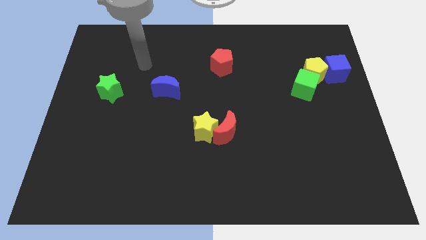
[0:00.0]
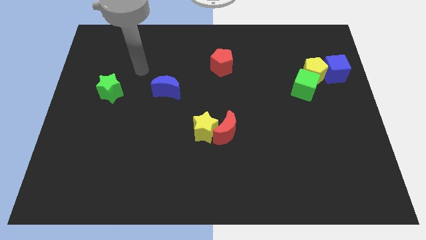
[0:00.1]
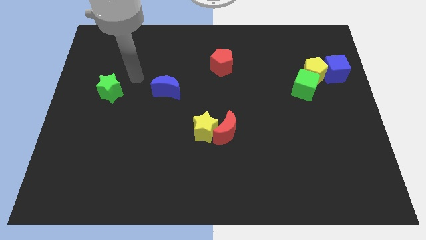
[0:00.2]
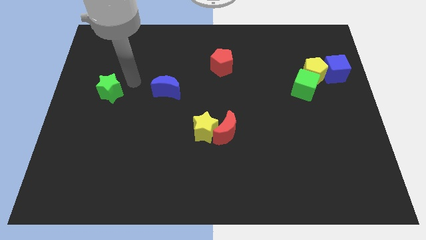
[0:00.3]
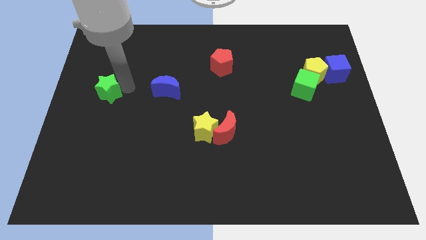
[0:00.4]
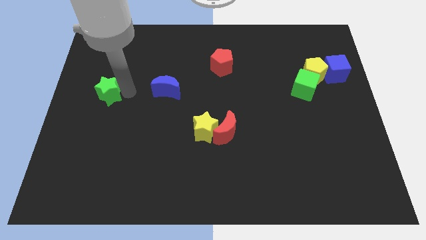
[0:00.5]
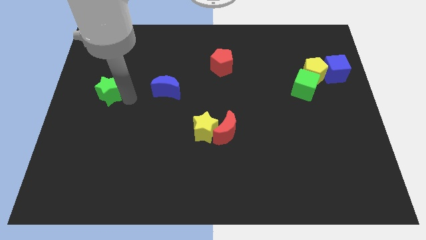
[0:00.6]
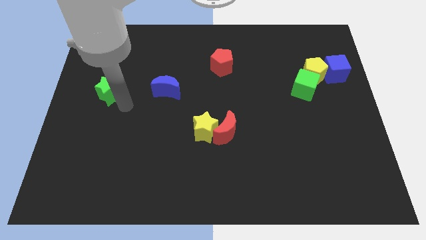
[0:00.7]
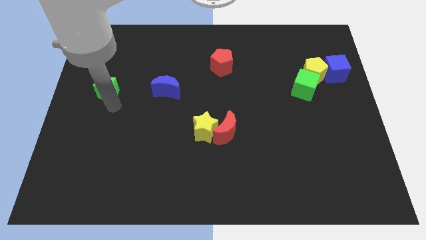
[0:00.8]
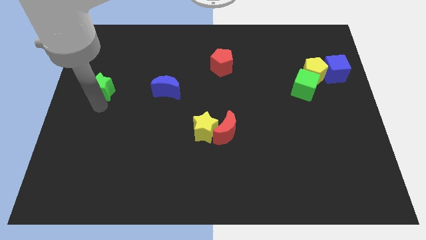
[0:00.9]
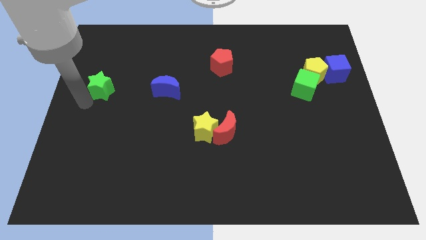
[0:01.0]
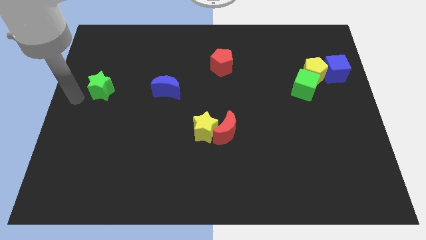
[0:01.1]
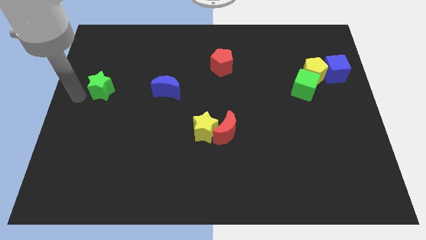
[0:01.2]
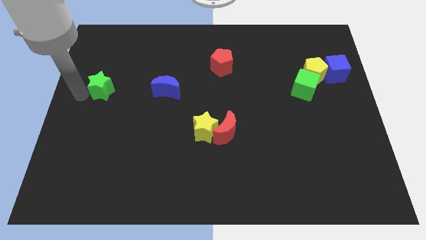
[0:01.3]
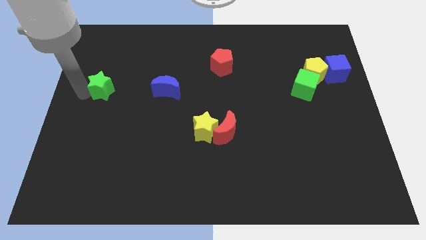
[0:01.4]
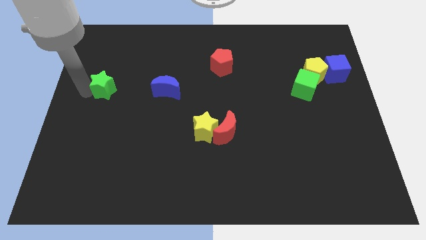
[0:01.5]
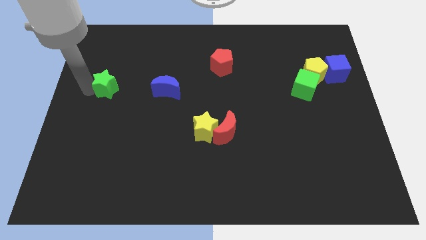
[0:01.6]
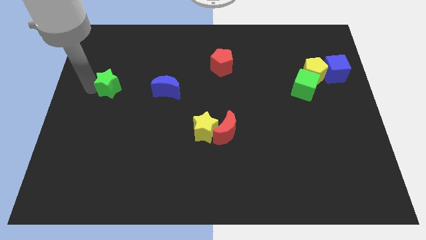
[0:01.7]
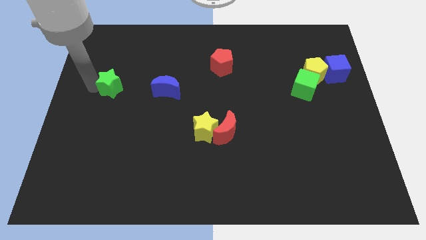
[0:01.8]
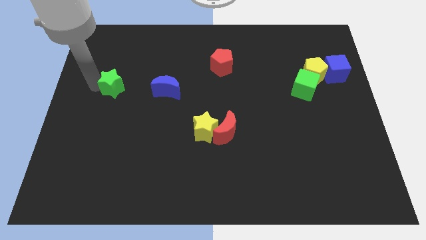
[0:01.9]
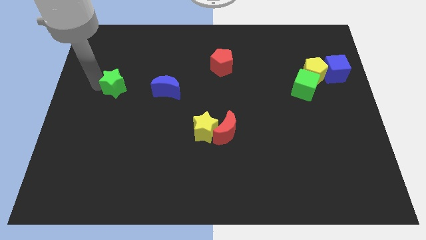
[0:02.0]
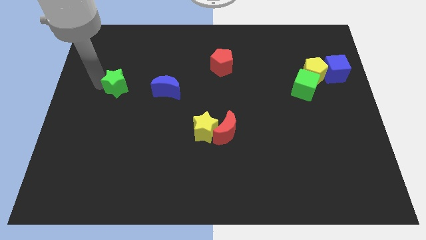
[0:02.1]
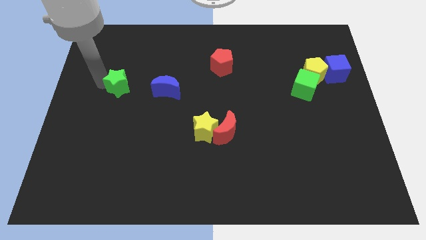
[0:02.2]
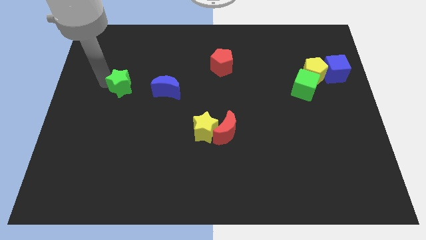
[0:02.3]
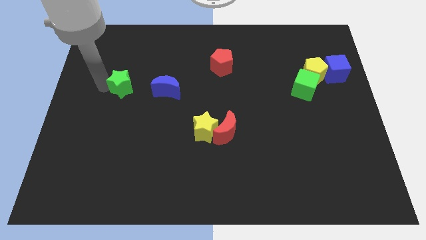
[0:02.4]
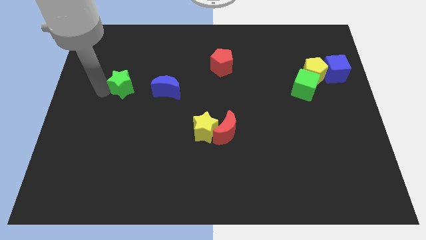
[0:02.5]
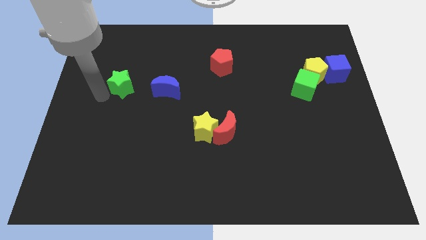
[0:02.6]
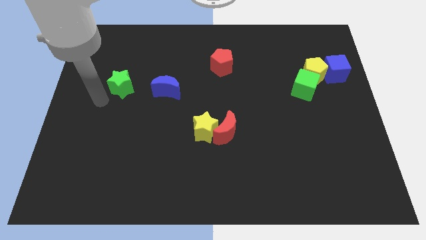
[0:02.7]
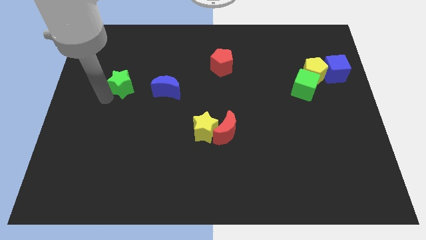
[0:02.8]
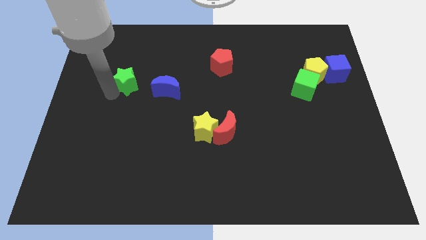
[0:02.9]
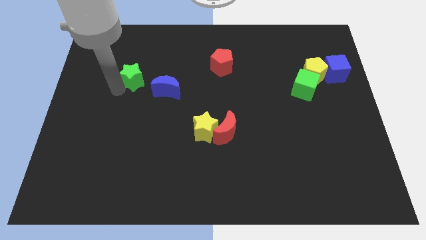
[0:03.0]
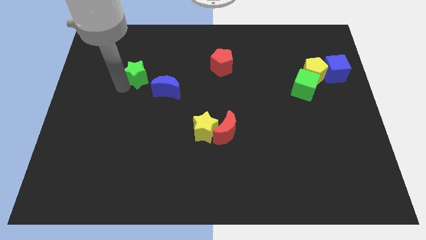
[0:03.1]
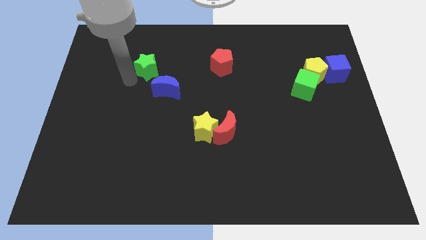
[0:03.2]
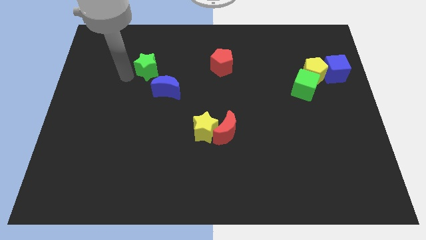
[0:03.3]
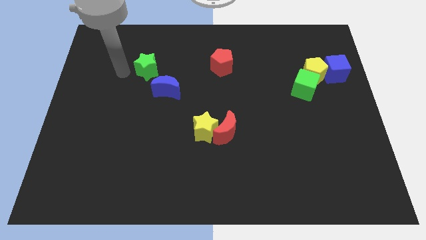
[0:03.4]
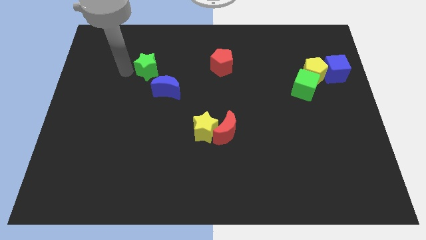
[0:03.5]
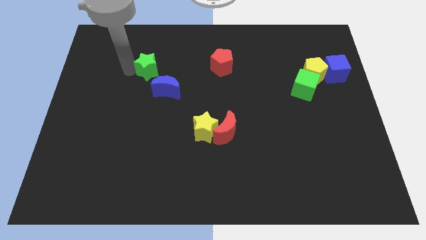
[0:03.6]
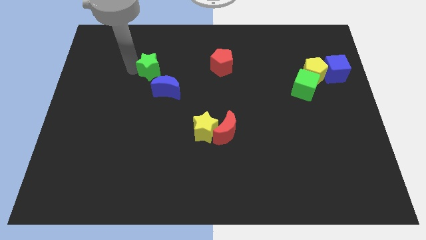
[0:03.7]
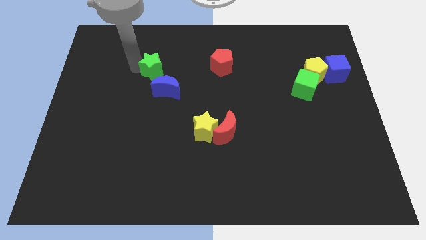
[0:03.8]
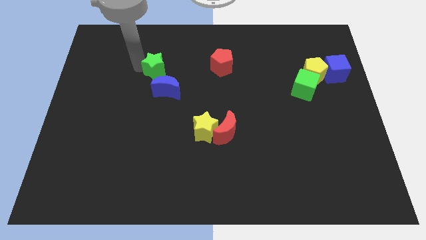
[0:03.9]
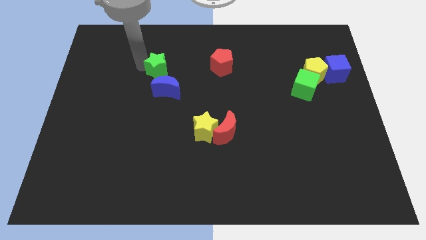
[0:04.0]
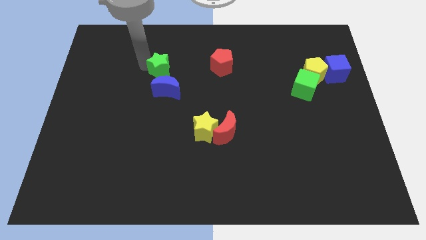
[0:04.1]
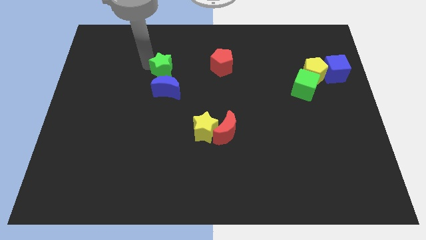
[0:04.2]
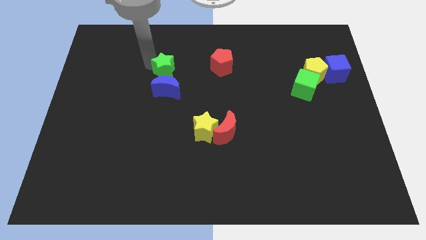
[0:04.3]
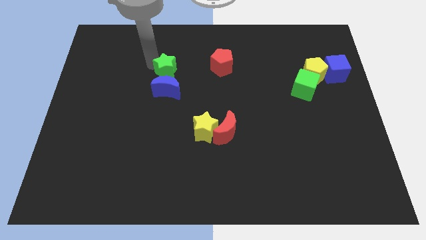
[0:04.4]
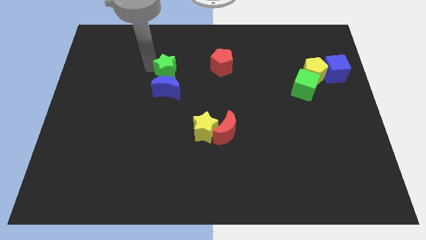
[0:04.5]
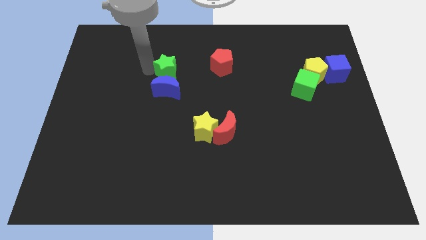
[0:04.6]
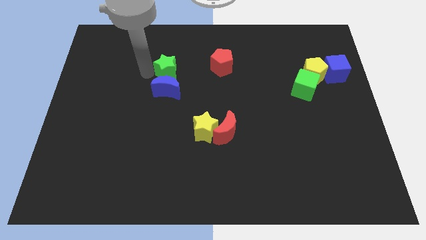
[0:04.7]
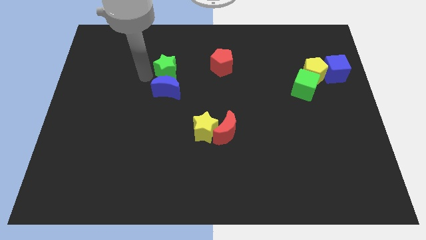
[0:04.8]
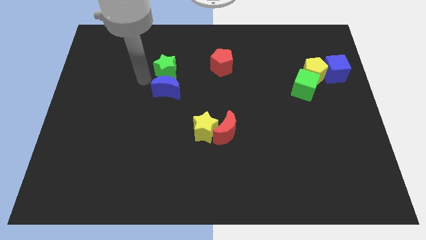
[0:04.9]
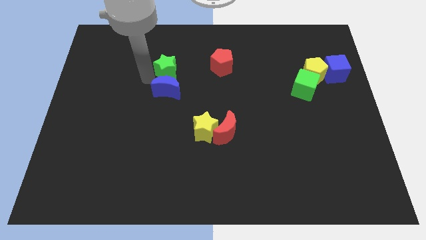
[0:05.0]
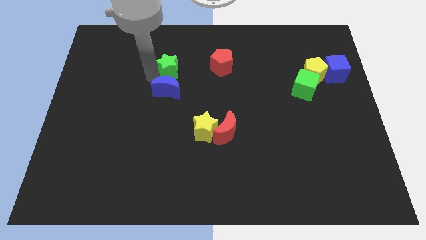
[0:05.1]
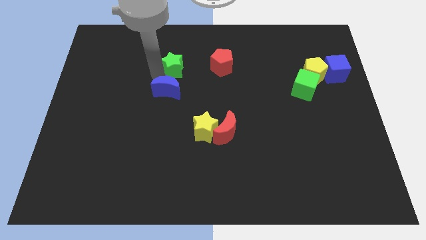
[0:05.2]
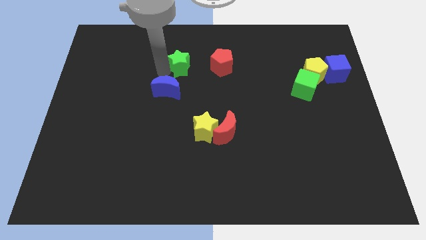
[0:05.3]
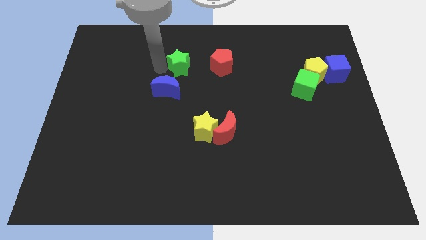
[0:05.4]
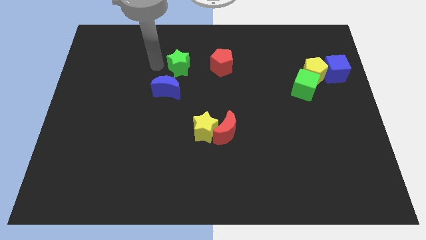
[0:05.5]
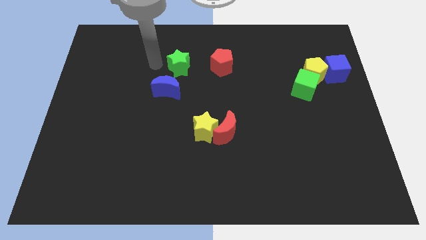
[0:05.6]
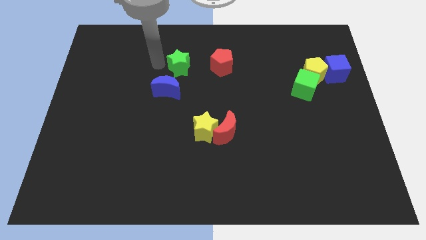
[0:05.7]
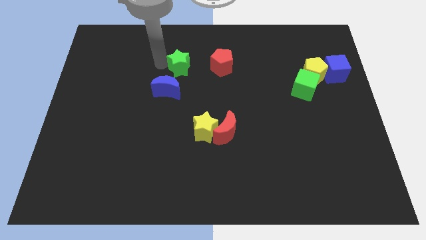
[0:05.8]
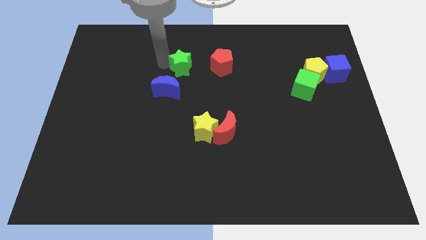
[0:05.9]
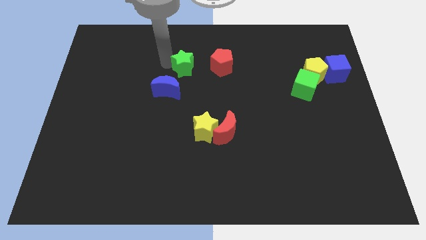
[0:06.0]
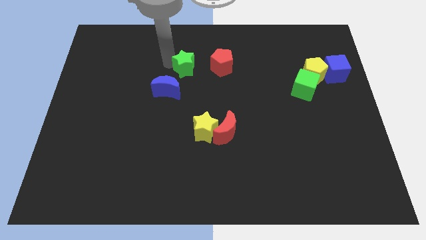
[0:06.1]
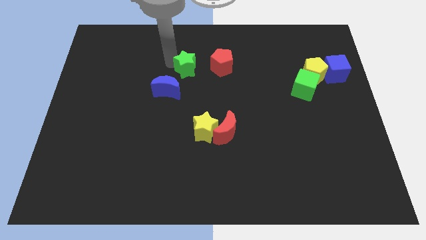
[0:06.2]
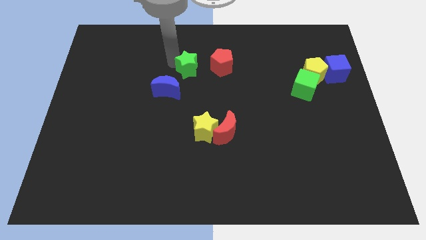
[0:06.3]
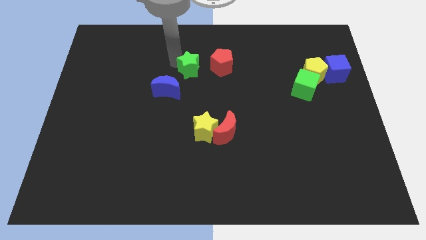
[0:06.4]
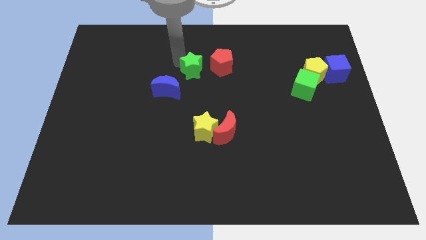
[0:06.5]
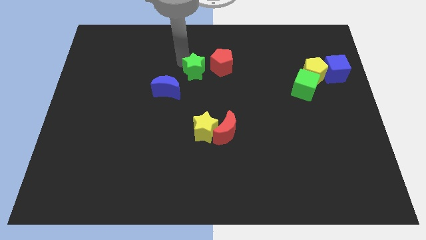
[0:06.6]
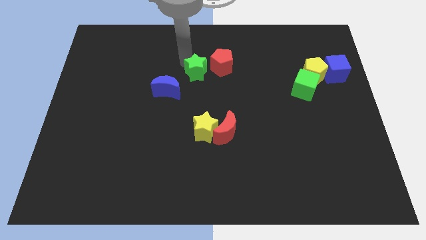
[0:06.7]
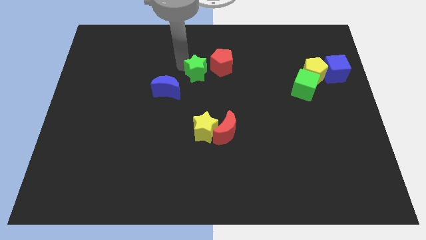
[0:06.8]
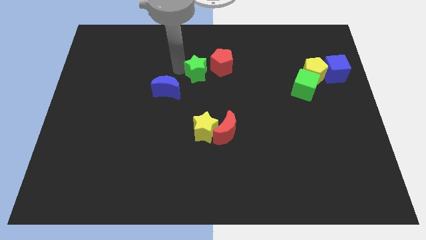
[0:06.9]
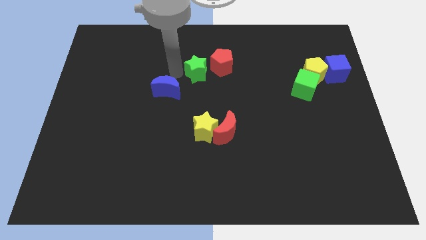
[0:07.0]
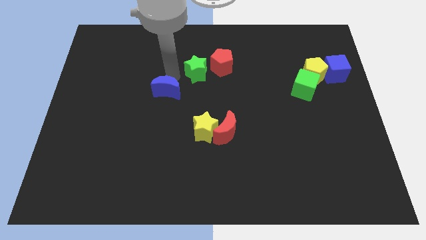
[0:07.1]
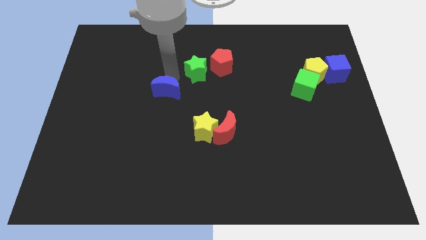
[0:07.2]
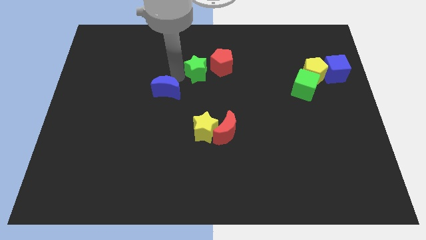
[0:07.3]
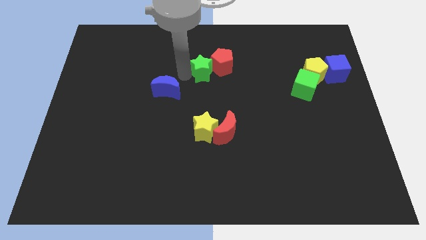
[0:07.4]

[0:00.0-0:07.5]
push the green star next to the red pentagon
